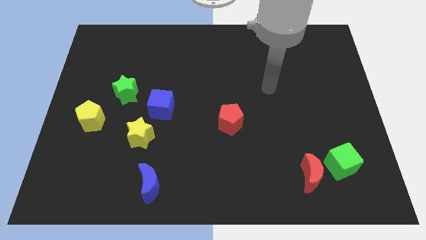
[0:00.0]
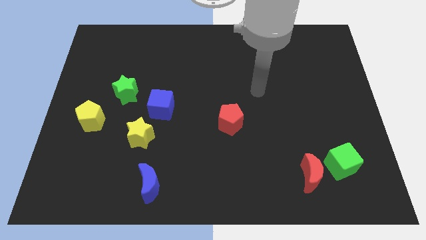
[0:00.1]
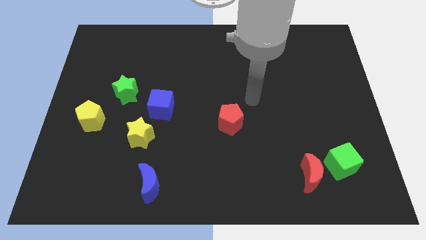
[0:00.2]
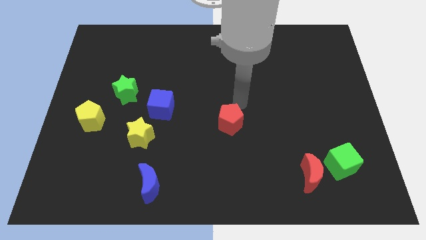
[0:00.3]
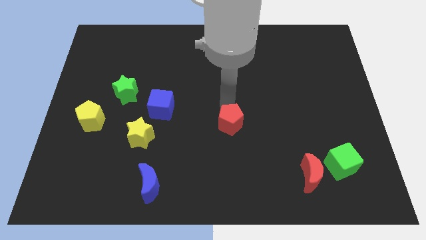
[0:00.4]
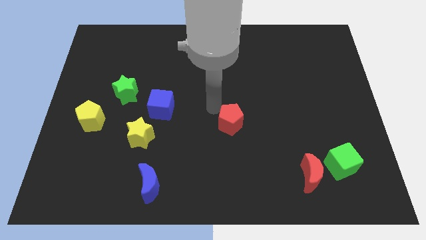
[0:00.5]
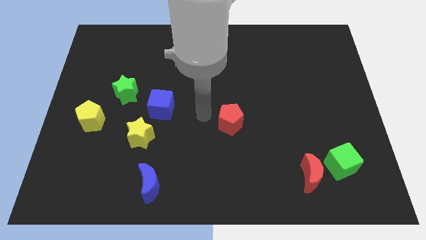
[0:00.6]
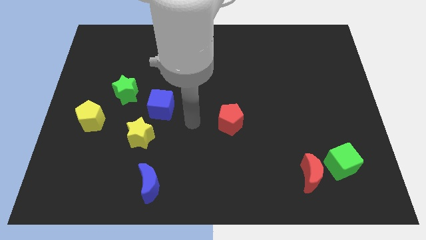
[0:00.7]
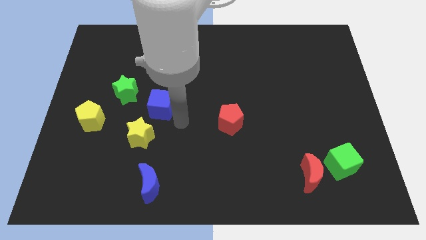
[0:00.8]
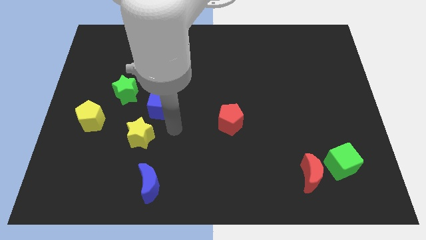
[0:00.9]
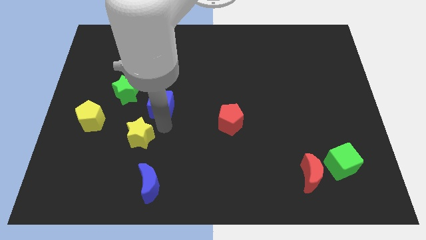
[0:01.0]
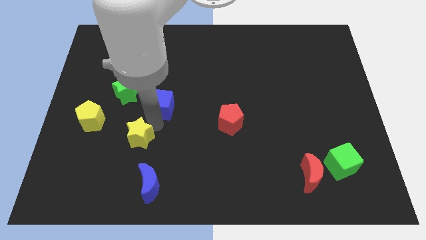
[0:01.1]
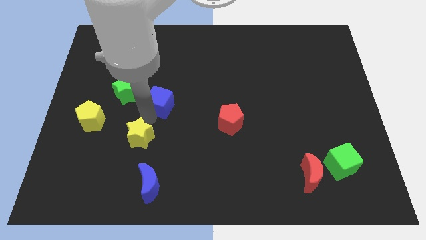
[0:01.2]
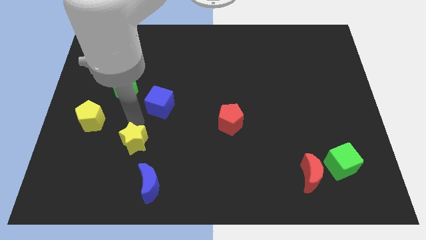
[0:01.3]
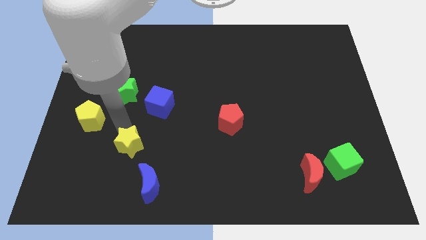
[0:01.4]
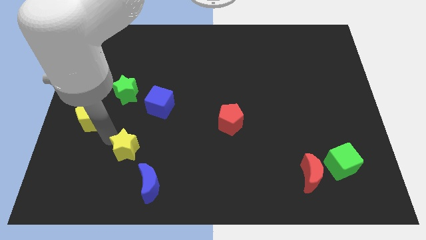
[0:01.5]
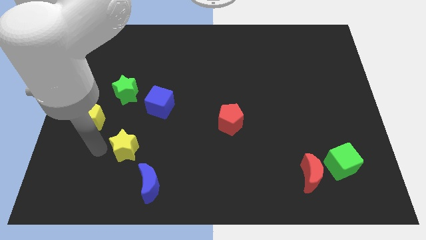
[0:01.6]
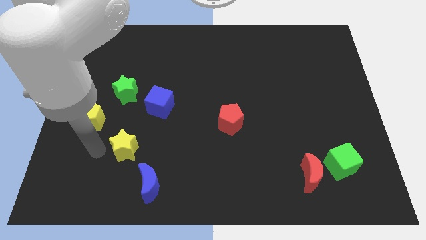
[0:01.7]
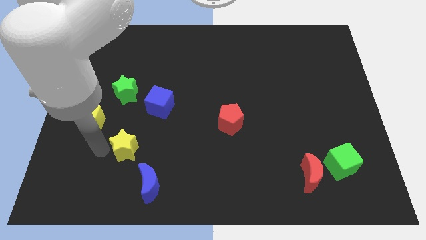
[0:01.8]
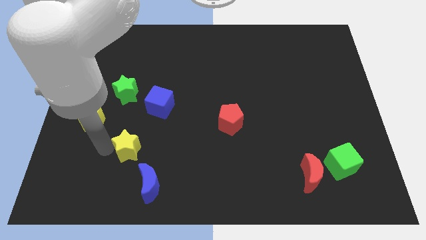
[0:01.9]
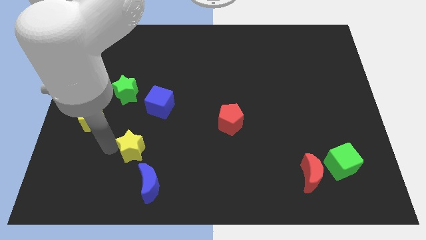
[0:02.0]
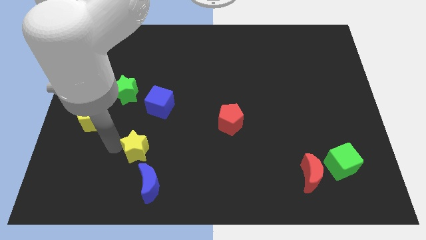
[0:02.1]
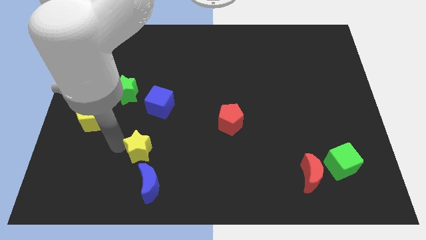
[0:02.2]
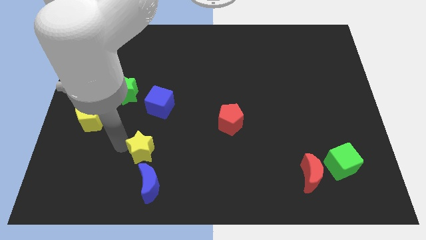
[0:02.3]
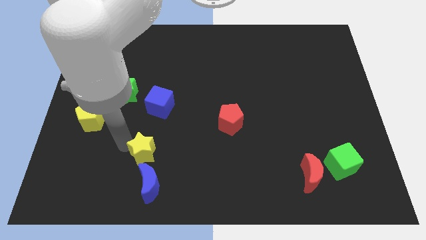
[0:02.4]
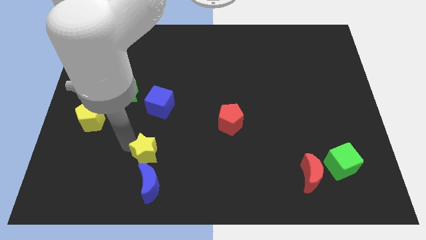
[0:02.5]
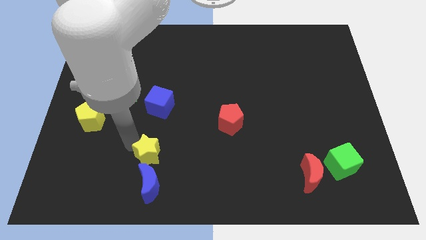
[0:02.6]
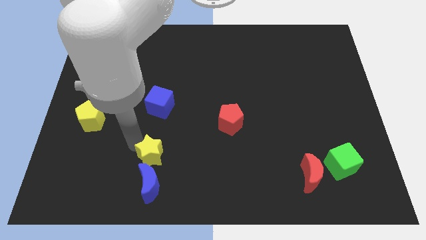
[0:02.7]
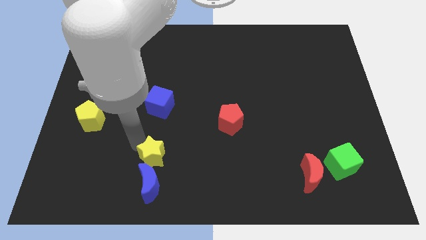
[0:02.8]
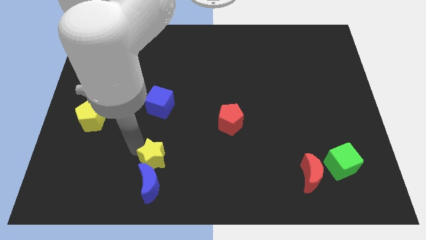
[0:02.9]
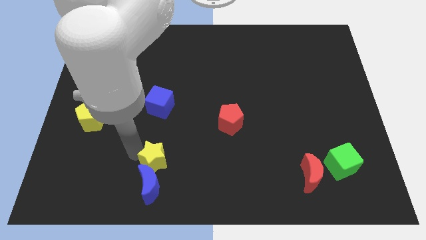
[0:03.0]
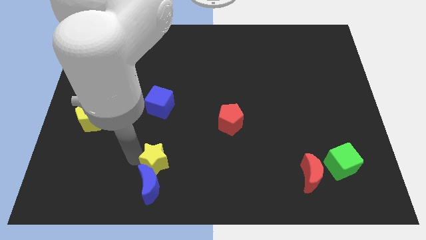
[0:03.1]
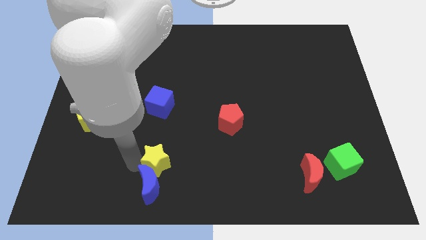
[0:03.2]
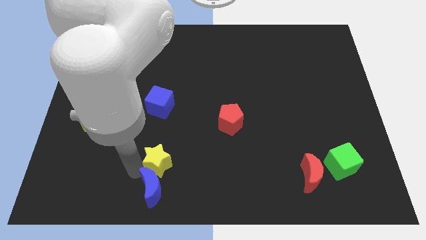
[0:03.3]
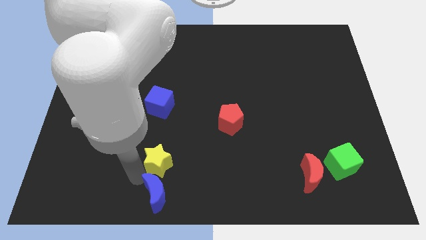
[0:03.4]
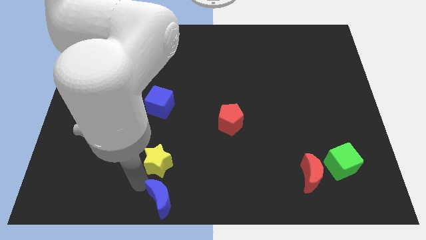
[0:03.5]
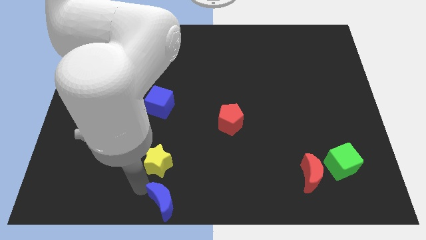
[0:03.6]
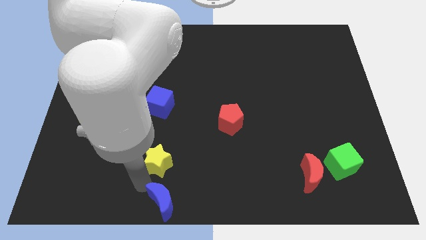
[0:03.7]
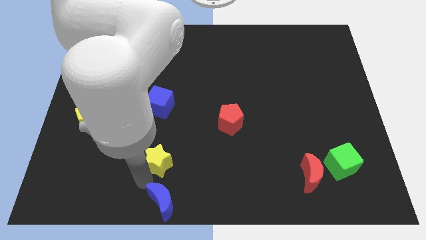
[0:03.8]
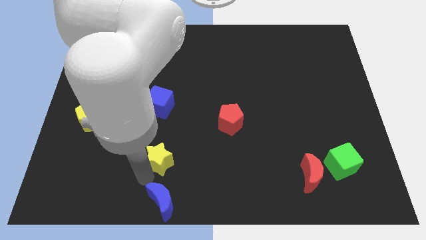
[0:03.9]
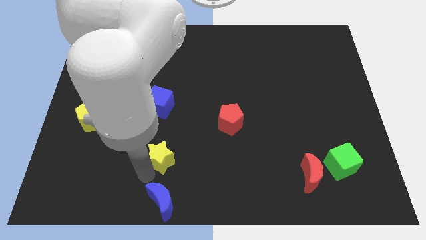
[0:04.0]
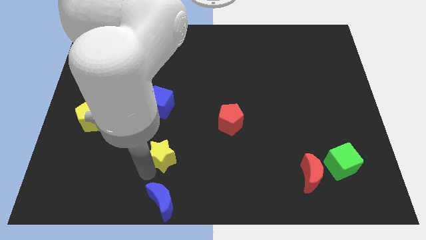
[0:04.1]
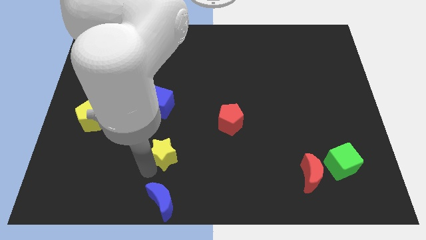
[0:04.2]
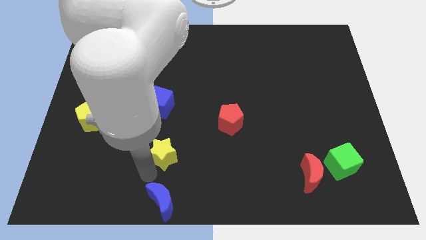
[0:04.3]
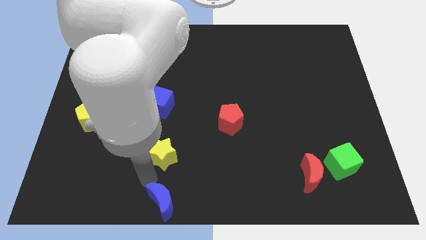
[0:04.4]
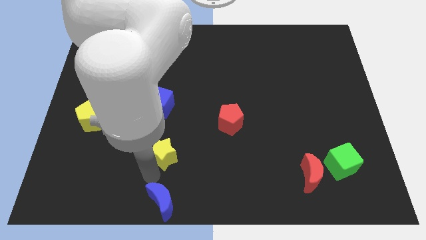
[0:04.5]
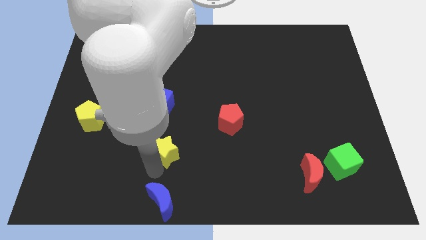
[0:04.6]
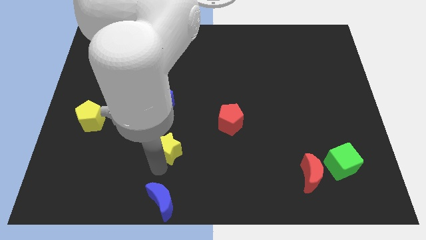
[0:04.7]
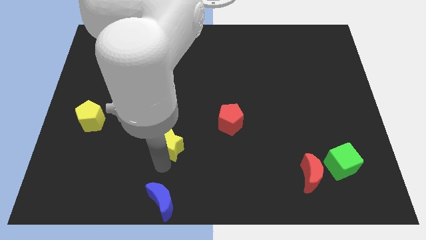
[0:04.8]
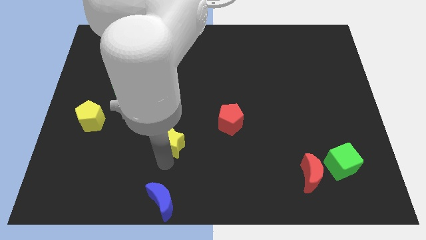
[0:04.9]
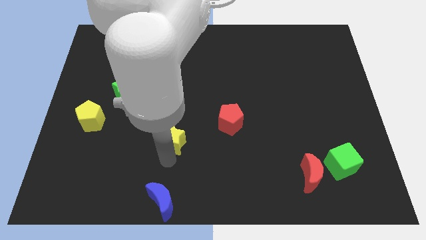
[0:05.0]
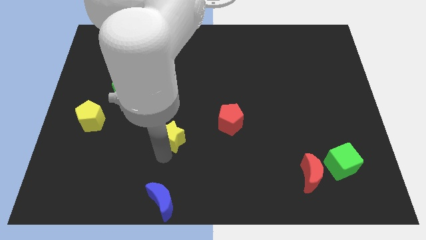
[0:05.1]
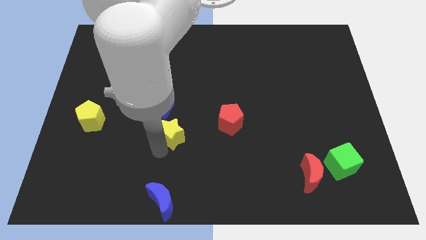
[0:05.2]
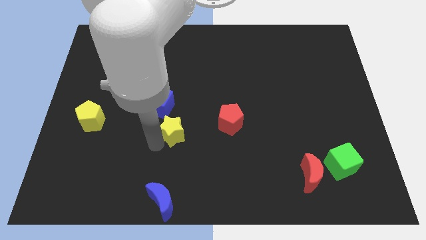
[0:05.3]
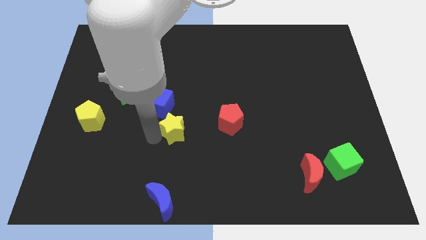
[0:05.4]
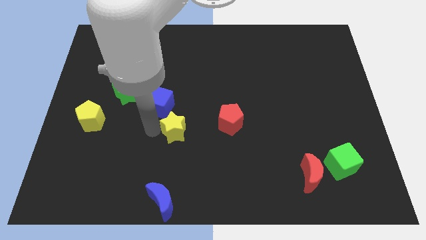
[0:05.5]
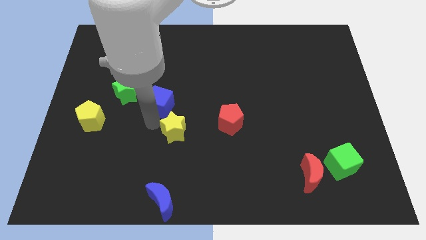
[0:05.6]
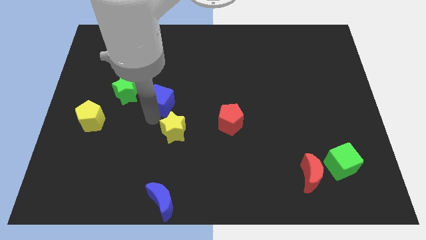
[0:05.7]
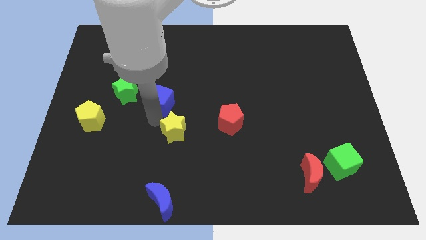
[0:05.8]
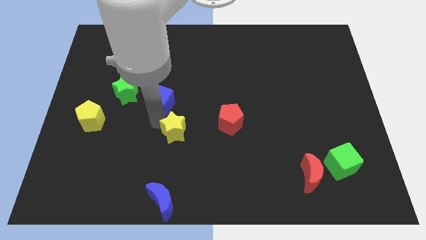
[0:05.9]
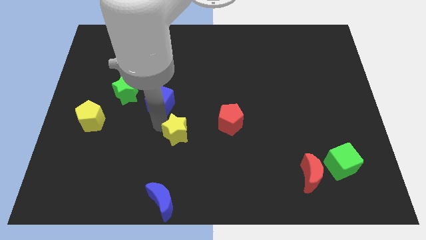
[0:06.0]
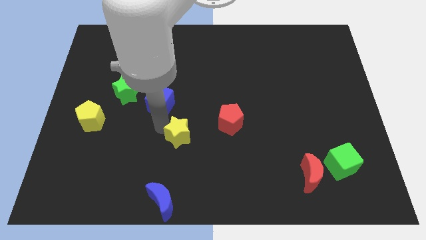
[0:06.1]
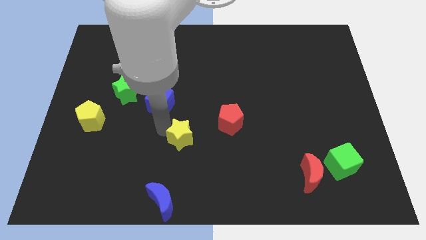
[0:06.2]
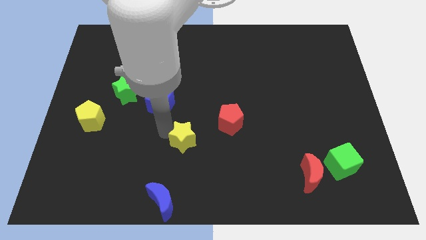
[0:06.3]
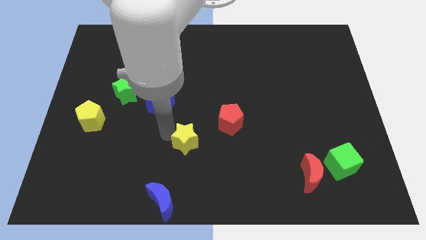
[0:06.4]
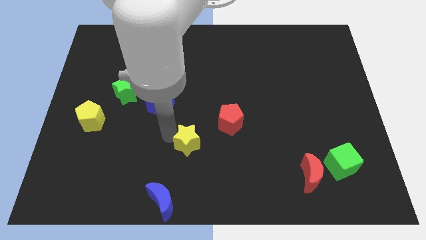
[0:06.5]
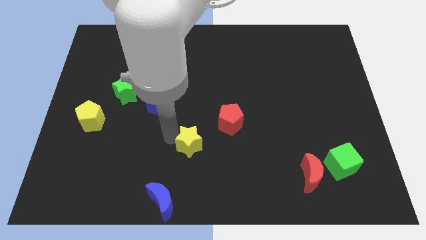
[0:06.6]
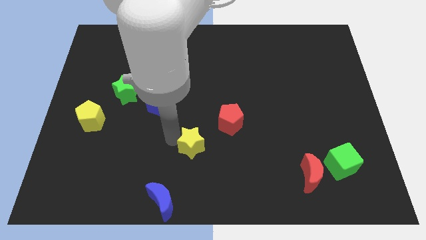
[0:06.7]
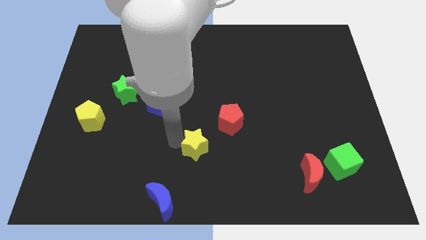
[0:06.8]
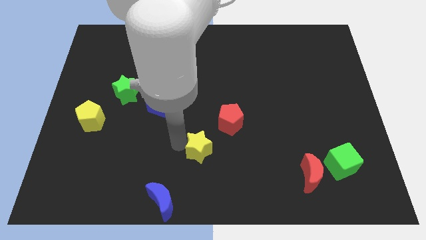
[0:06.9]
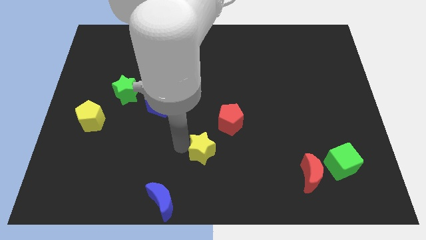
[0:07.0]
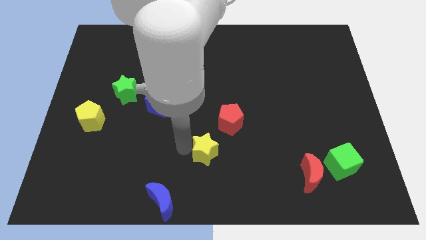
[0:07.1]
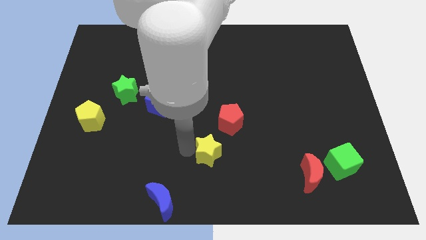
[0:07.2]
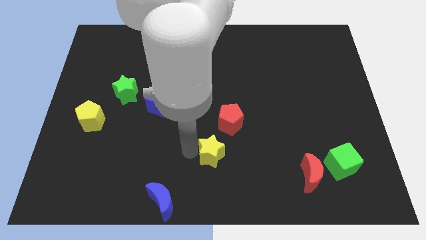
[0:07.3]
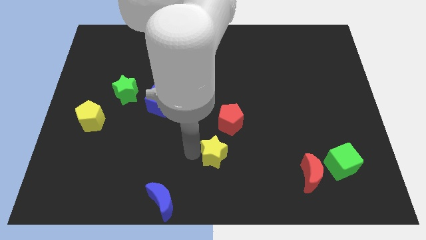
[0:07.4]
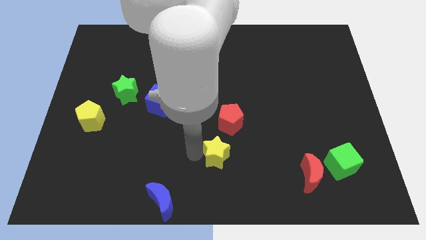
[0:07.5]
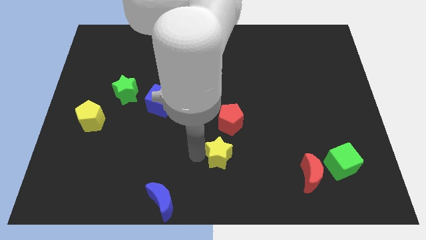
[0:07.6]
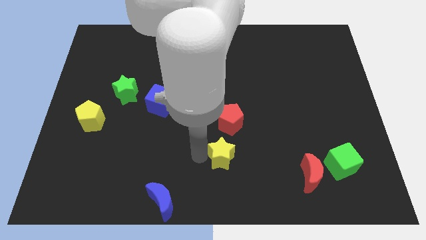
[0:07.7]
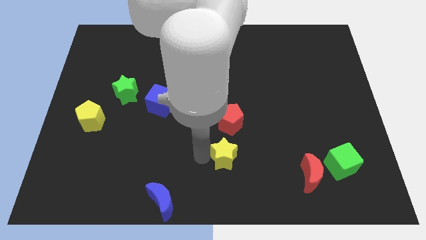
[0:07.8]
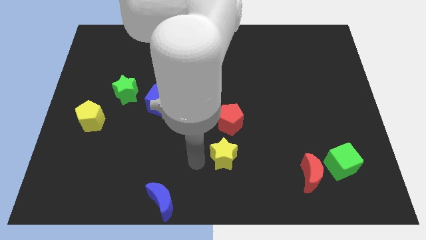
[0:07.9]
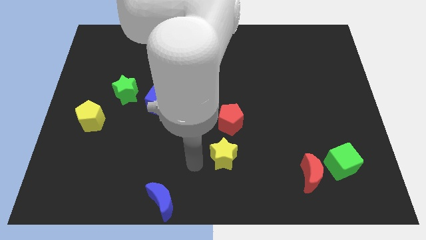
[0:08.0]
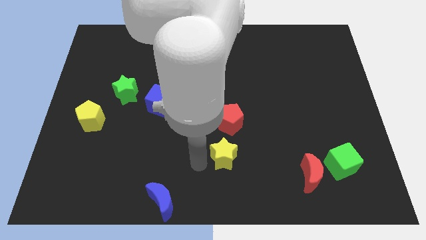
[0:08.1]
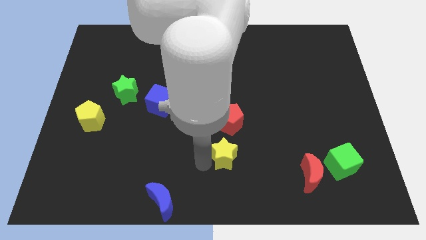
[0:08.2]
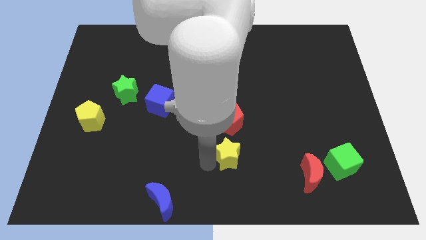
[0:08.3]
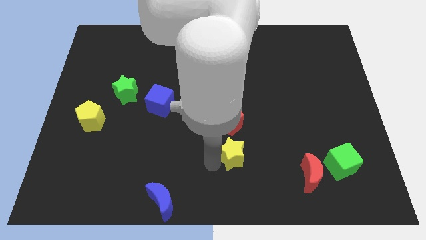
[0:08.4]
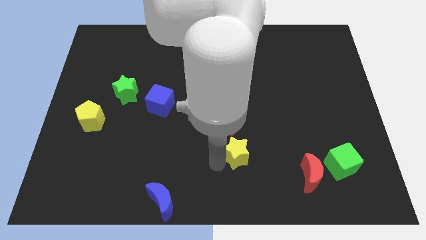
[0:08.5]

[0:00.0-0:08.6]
push the yellow star right
